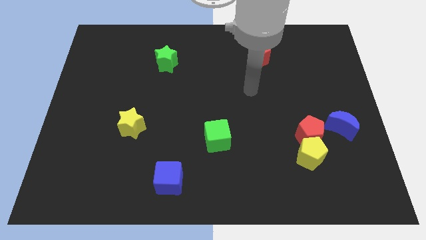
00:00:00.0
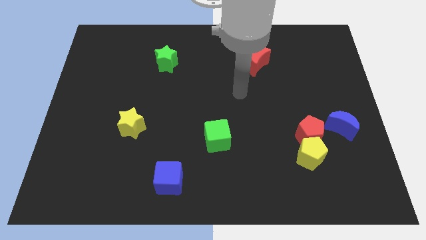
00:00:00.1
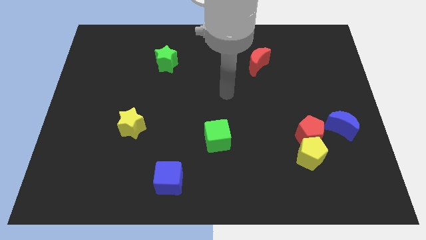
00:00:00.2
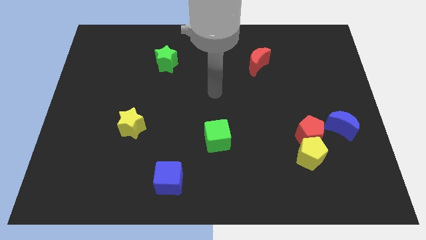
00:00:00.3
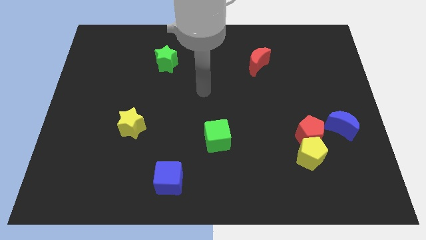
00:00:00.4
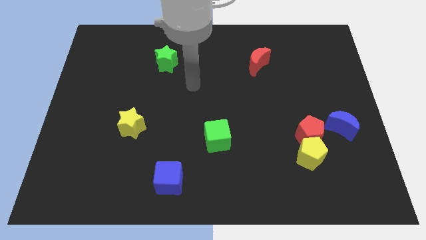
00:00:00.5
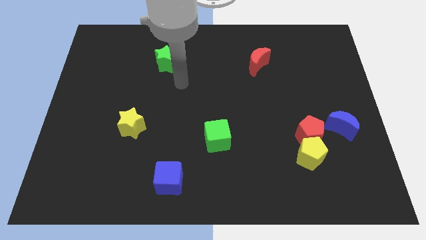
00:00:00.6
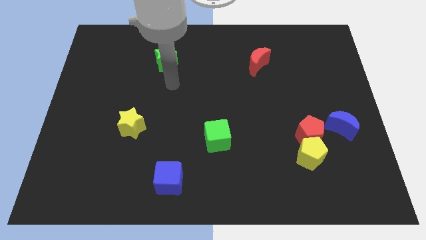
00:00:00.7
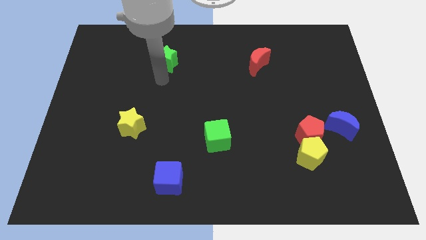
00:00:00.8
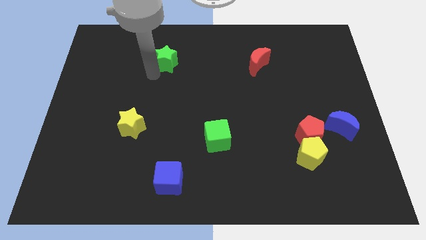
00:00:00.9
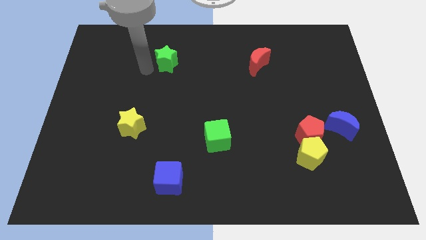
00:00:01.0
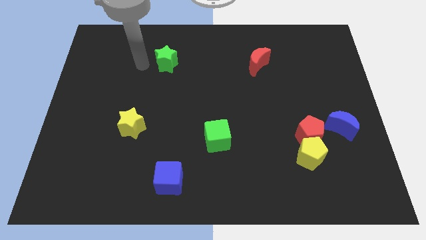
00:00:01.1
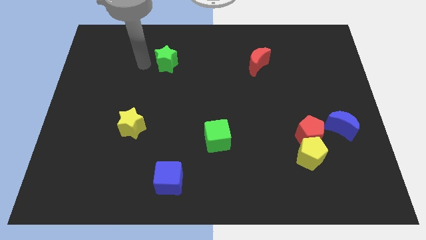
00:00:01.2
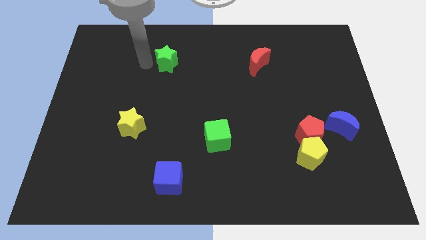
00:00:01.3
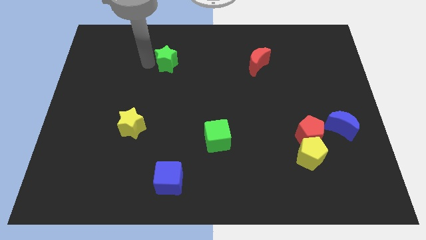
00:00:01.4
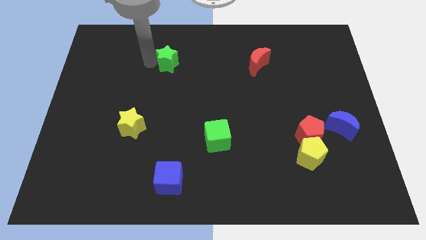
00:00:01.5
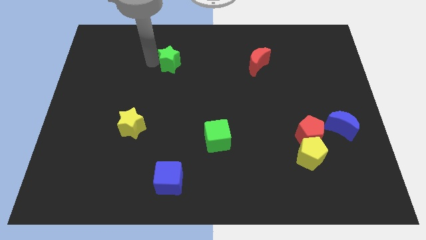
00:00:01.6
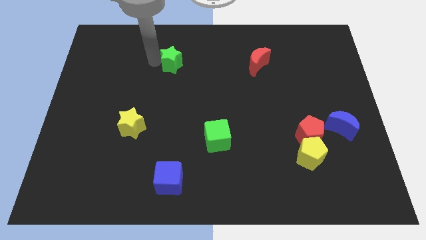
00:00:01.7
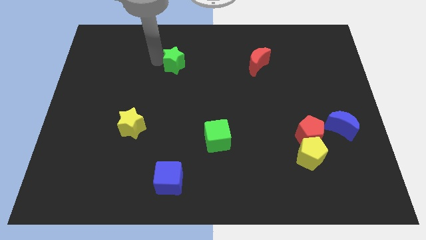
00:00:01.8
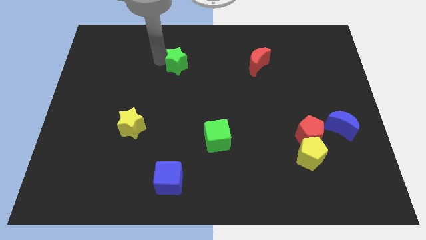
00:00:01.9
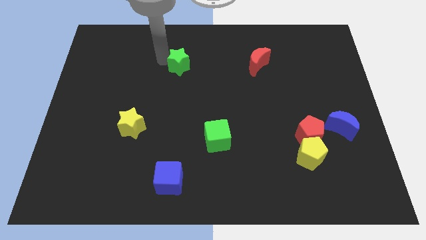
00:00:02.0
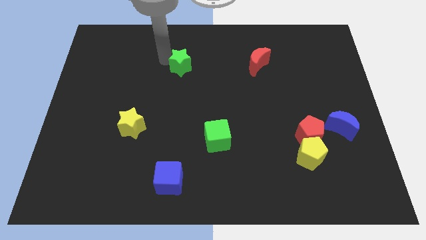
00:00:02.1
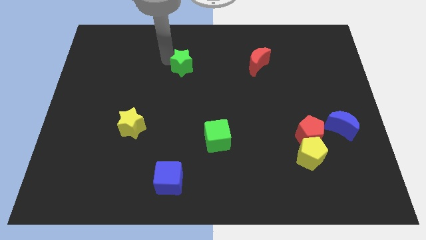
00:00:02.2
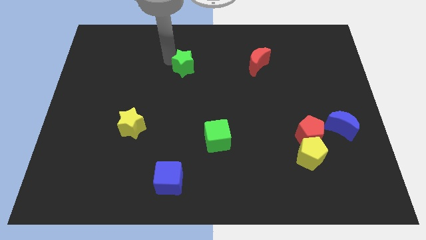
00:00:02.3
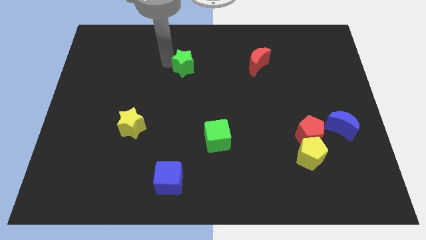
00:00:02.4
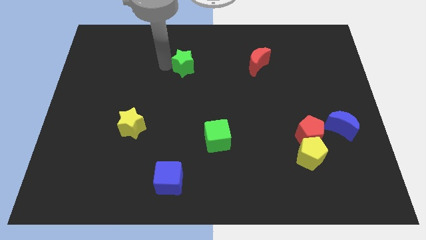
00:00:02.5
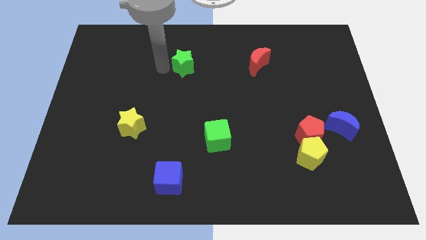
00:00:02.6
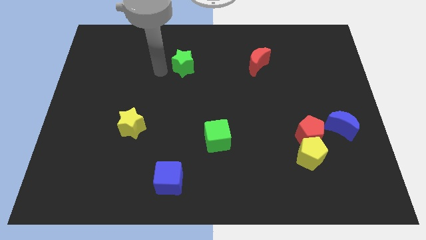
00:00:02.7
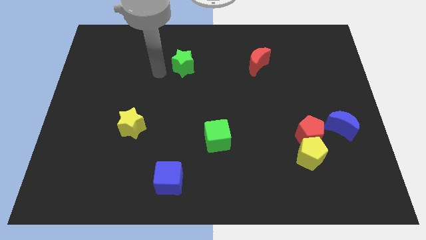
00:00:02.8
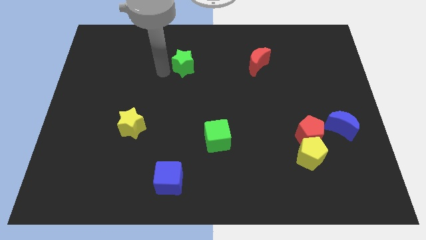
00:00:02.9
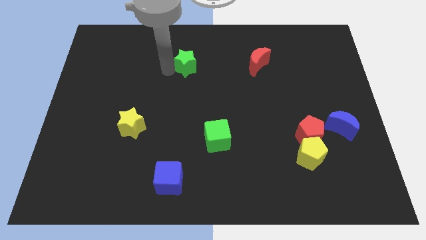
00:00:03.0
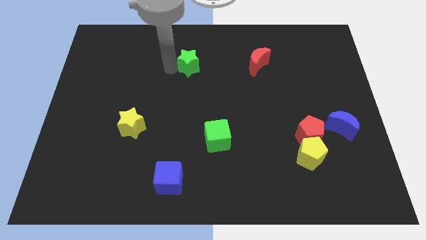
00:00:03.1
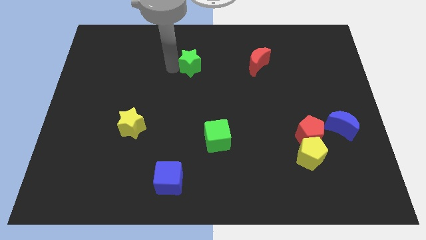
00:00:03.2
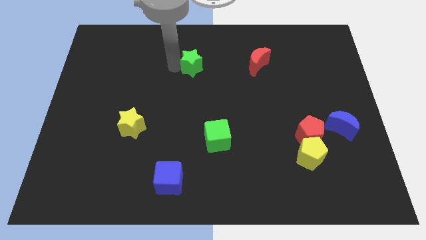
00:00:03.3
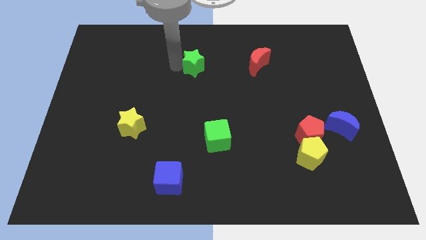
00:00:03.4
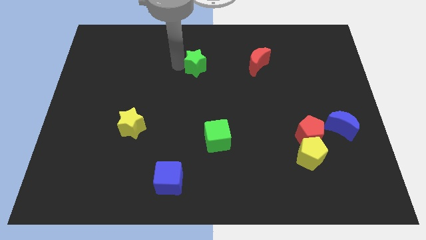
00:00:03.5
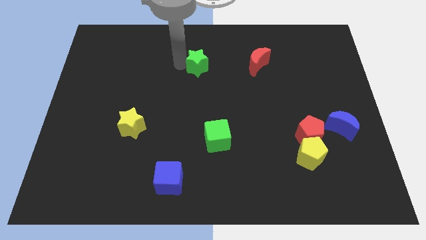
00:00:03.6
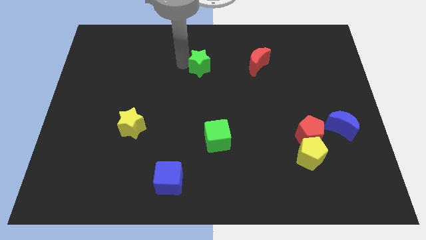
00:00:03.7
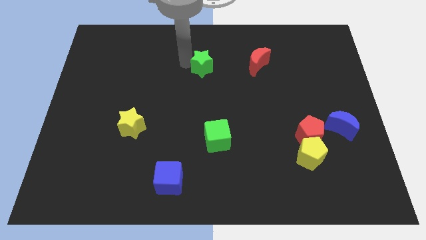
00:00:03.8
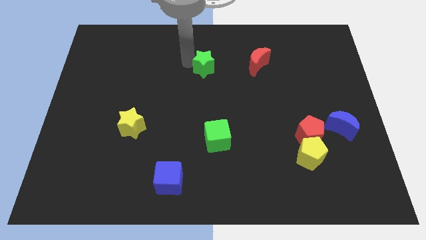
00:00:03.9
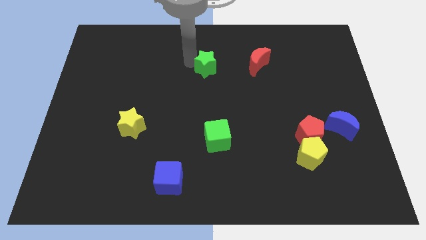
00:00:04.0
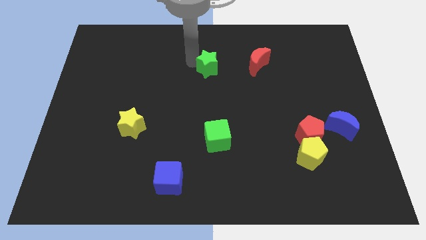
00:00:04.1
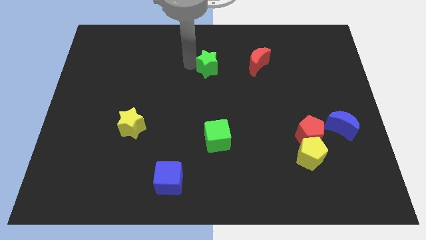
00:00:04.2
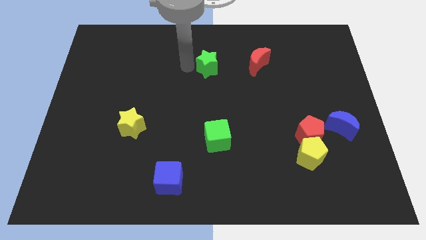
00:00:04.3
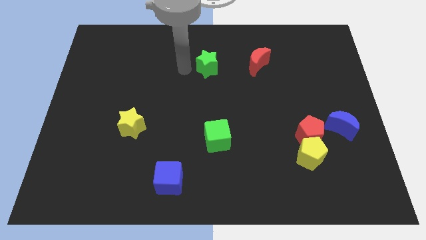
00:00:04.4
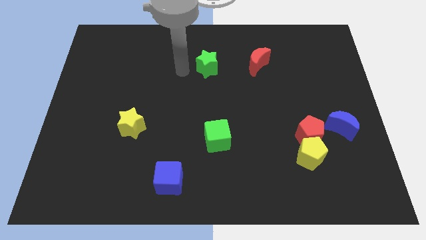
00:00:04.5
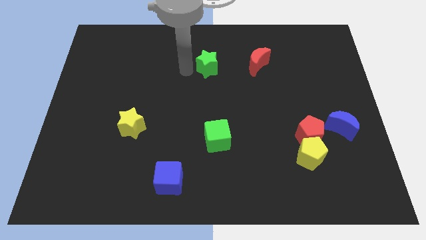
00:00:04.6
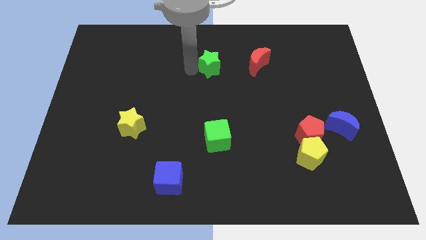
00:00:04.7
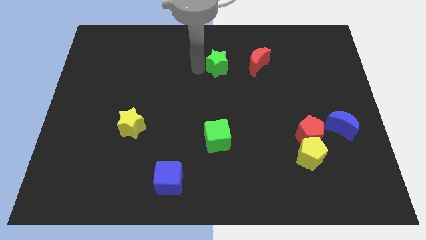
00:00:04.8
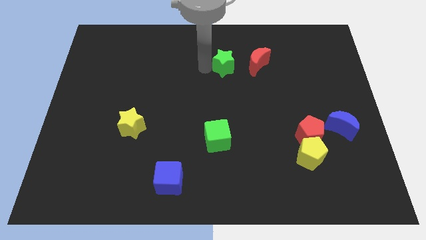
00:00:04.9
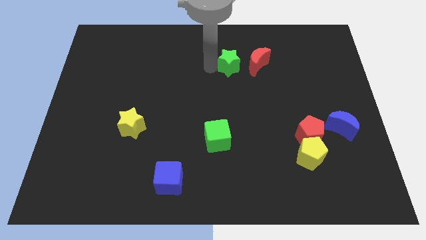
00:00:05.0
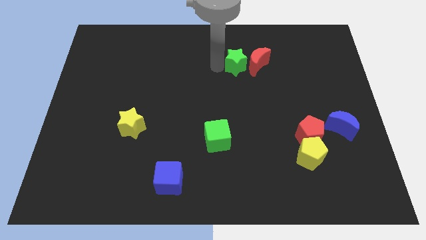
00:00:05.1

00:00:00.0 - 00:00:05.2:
slide the green star to the red moon

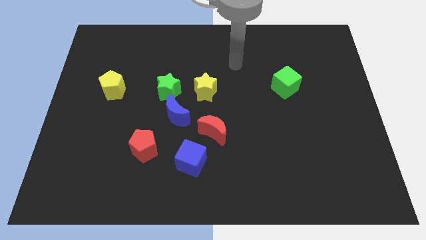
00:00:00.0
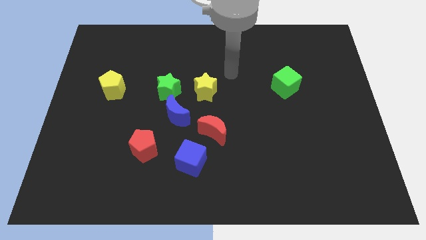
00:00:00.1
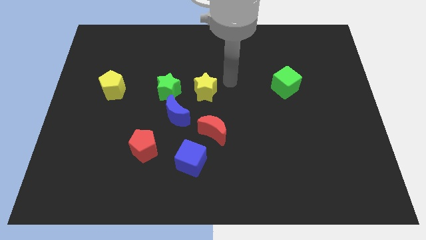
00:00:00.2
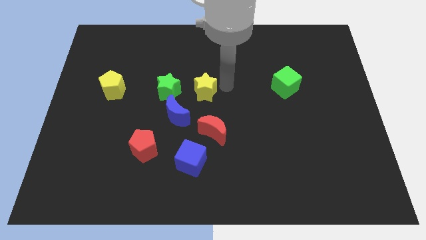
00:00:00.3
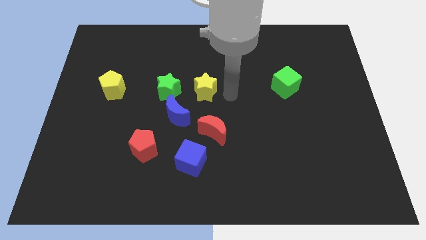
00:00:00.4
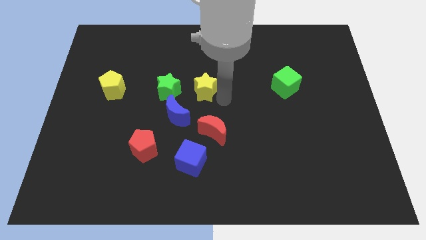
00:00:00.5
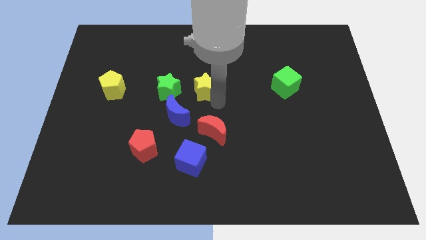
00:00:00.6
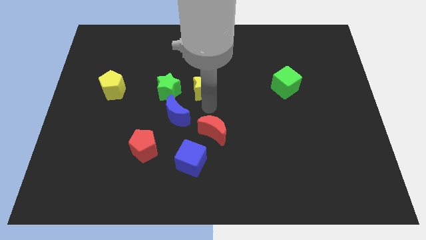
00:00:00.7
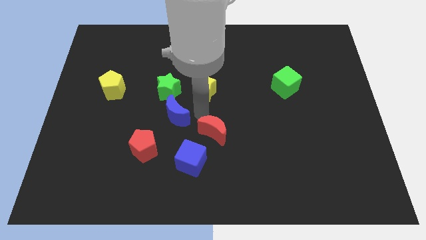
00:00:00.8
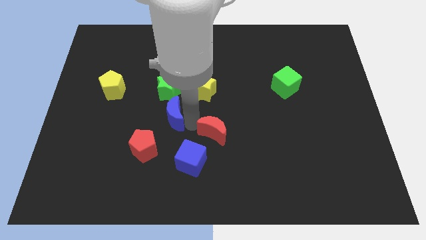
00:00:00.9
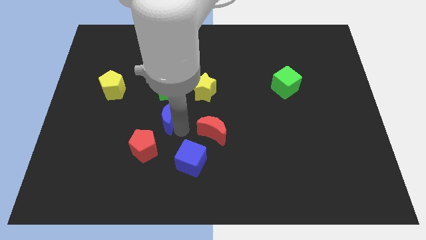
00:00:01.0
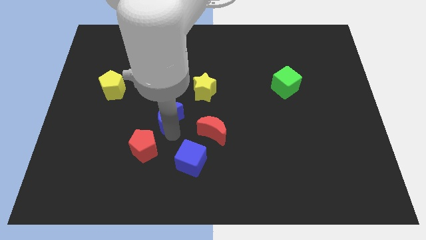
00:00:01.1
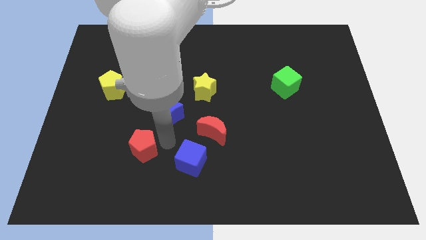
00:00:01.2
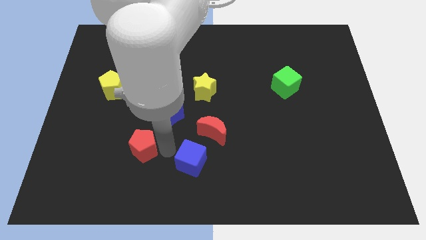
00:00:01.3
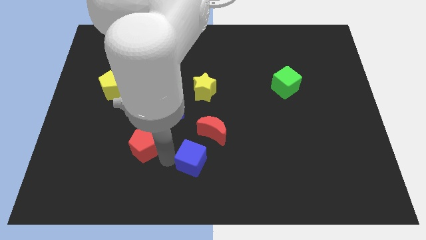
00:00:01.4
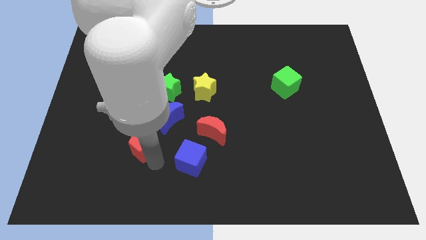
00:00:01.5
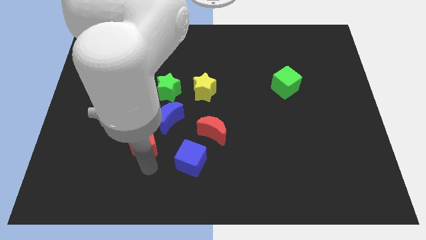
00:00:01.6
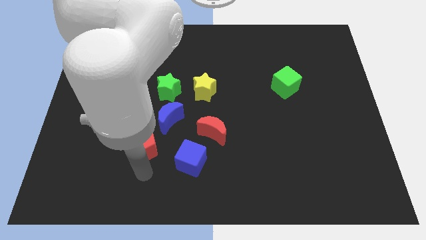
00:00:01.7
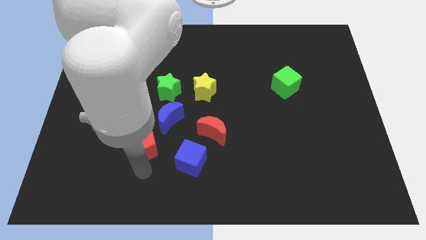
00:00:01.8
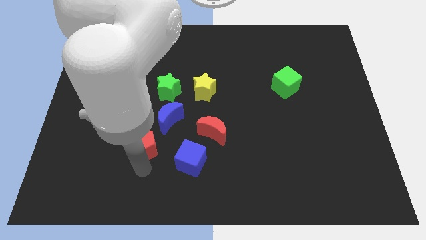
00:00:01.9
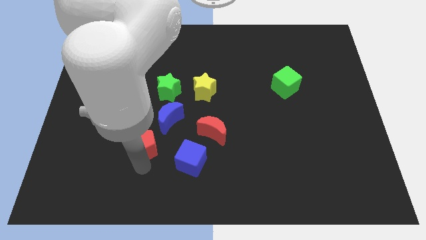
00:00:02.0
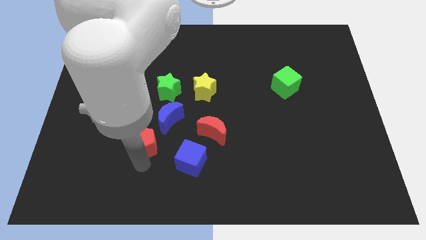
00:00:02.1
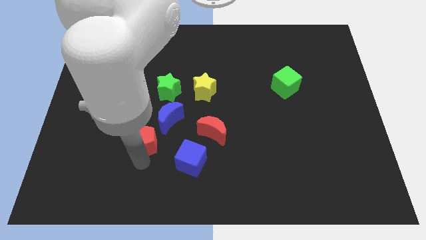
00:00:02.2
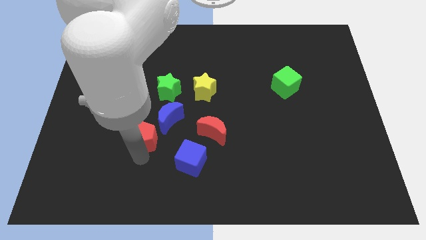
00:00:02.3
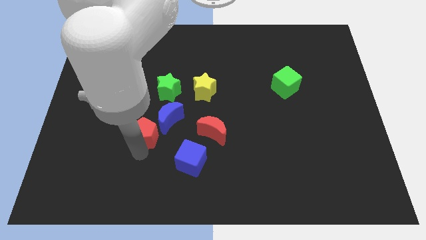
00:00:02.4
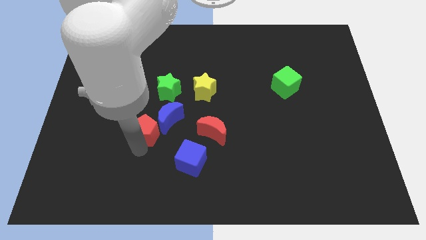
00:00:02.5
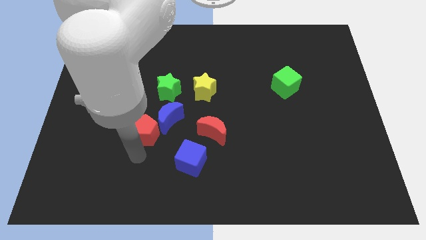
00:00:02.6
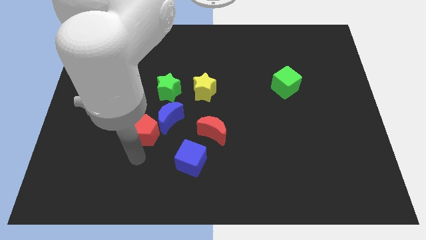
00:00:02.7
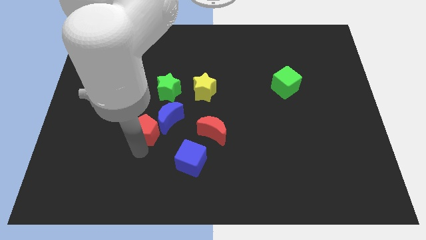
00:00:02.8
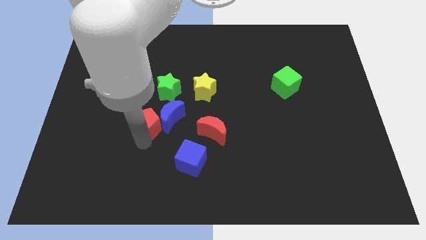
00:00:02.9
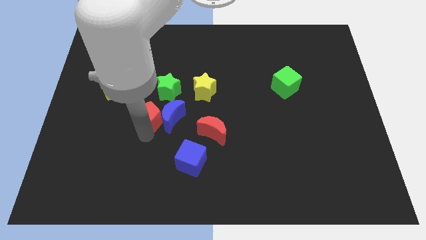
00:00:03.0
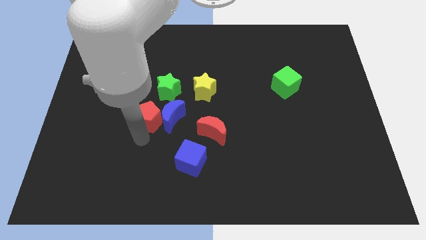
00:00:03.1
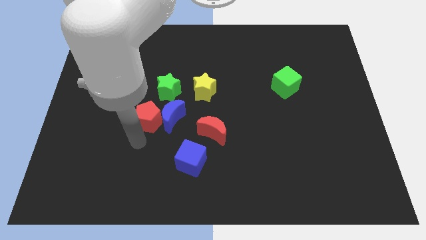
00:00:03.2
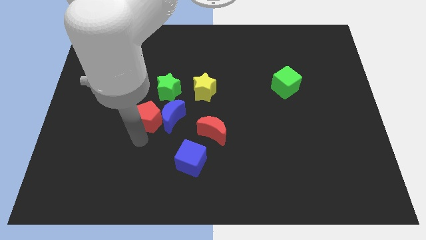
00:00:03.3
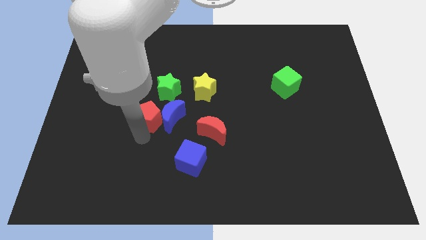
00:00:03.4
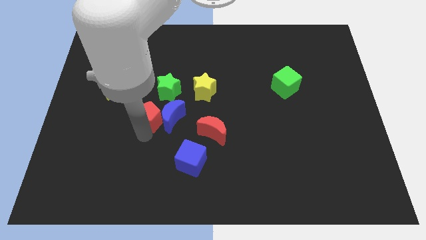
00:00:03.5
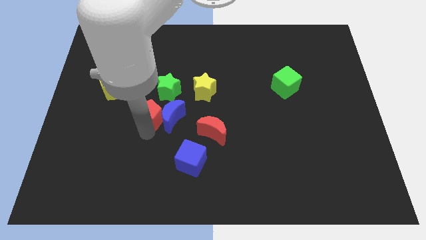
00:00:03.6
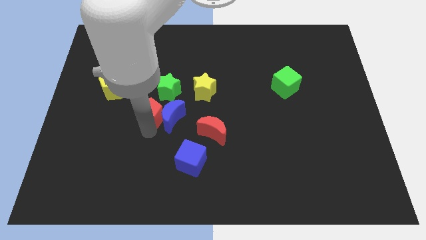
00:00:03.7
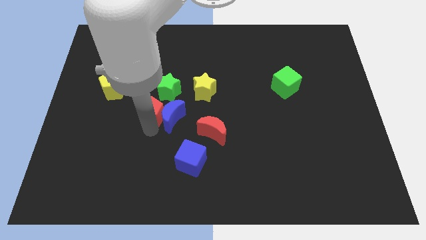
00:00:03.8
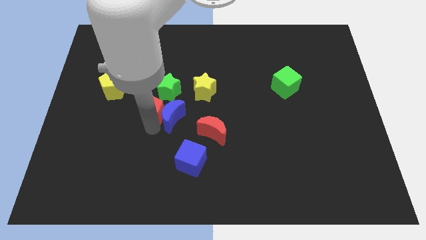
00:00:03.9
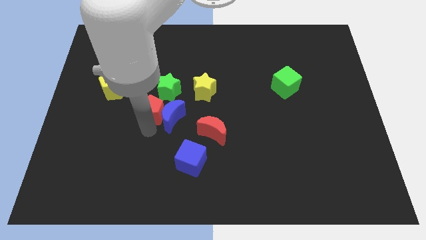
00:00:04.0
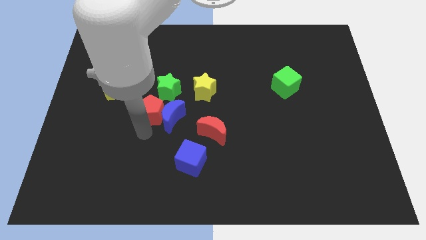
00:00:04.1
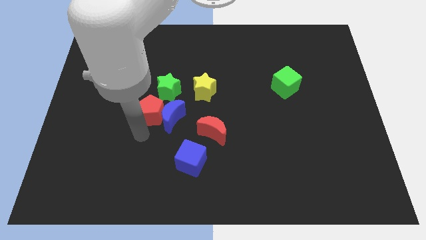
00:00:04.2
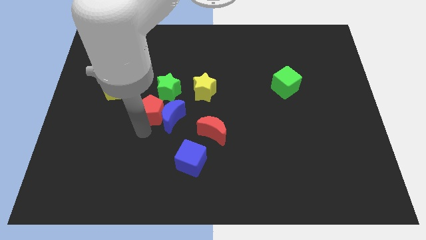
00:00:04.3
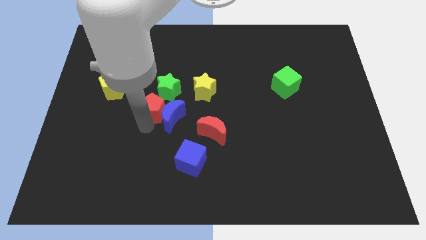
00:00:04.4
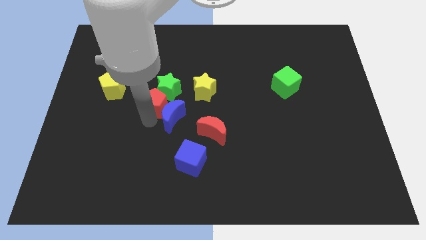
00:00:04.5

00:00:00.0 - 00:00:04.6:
slide the red pentagon next to the green star
